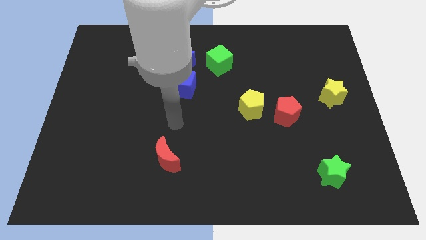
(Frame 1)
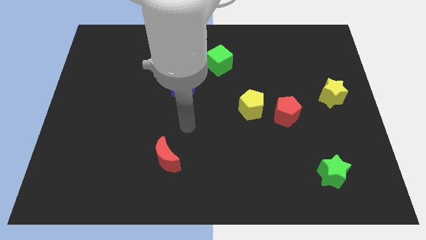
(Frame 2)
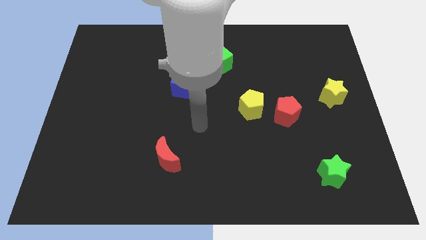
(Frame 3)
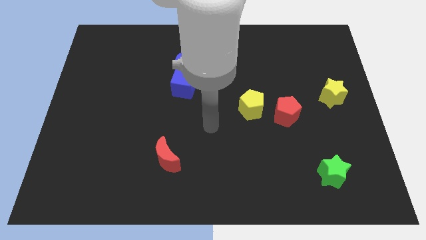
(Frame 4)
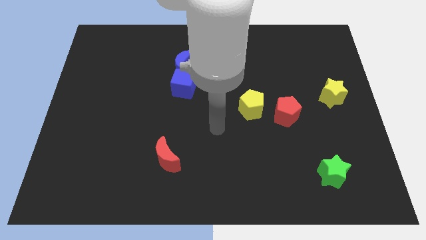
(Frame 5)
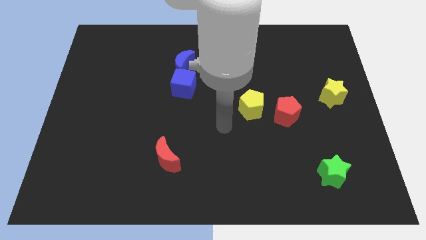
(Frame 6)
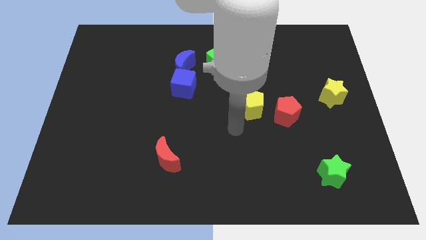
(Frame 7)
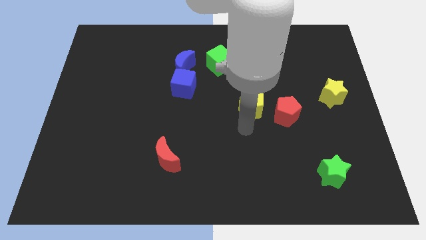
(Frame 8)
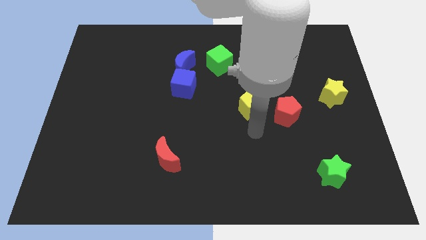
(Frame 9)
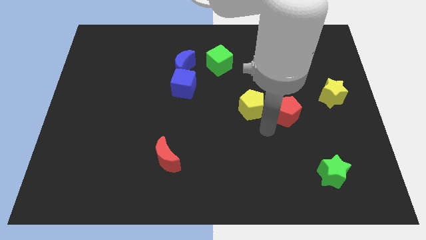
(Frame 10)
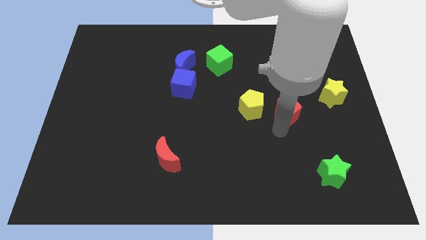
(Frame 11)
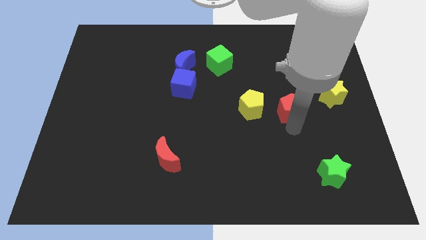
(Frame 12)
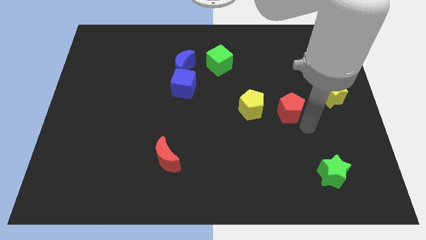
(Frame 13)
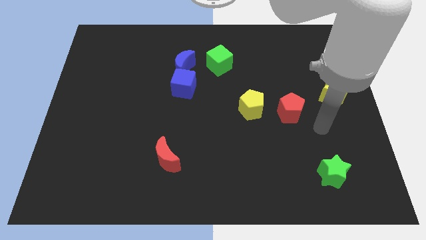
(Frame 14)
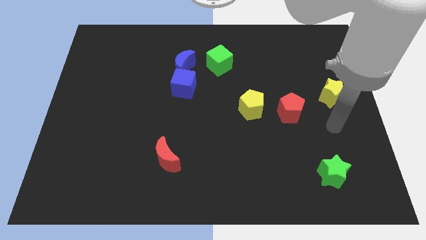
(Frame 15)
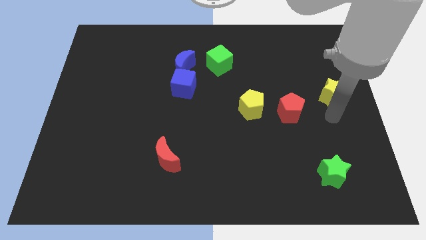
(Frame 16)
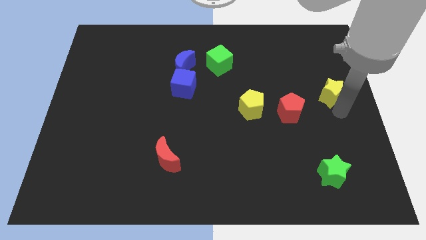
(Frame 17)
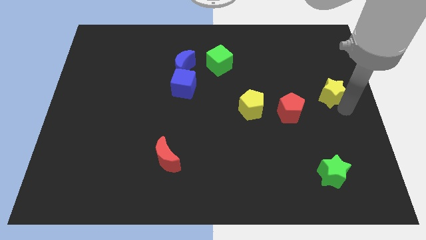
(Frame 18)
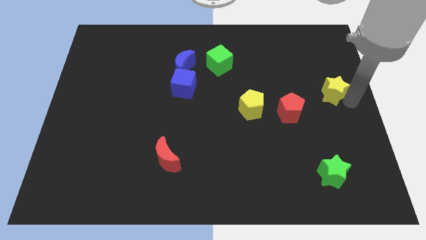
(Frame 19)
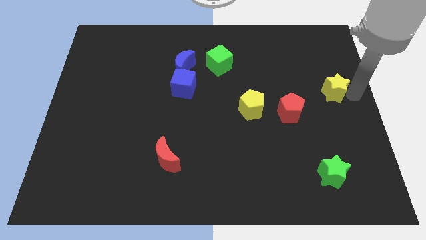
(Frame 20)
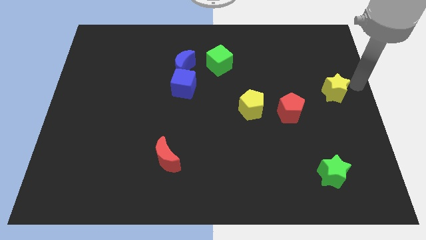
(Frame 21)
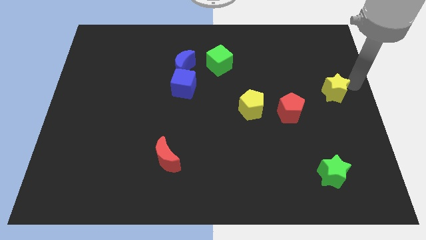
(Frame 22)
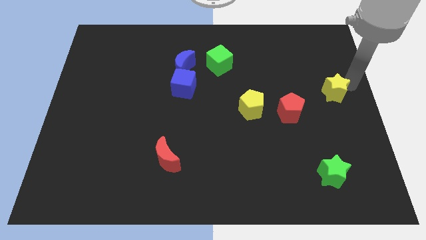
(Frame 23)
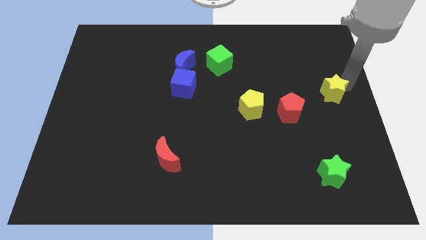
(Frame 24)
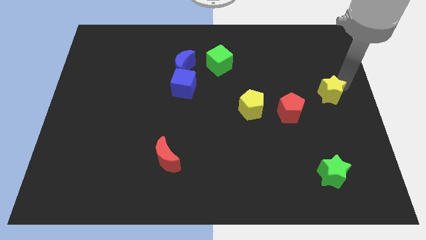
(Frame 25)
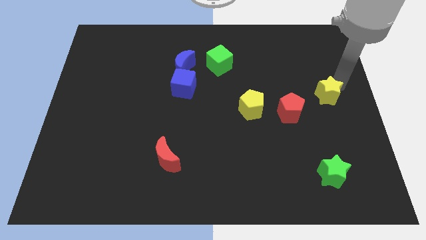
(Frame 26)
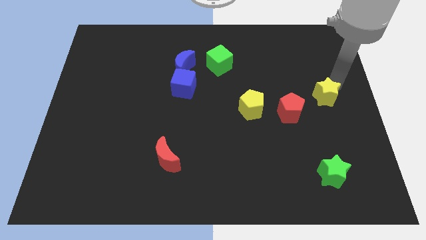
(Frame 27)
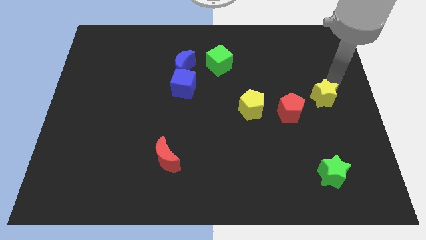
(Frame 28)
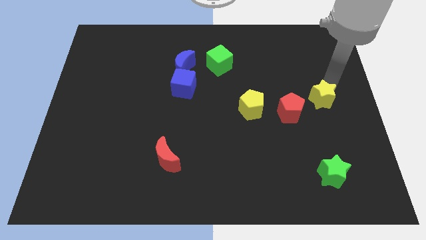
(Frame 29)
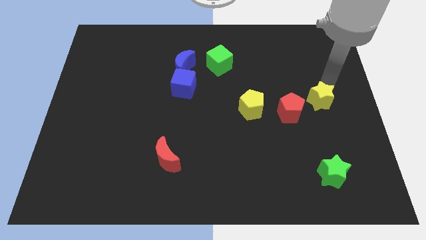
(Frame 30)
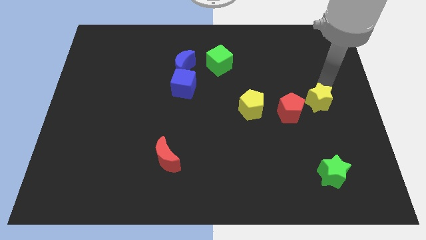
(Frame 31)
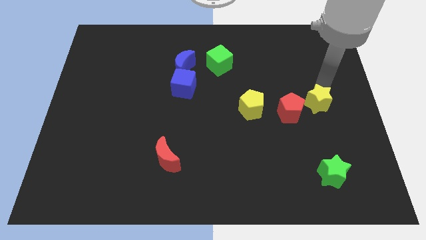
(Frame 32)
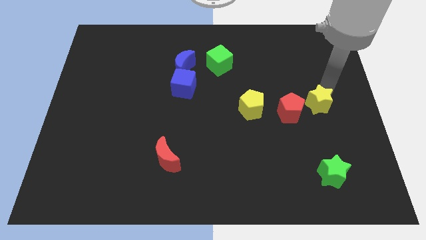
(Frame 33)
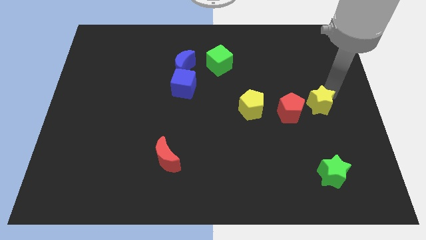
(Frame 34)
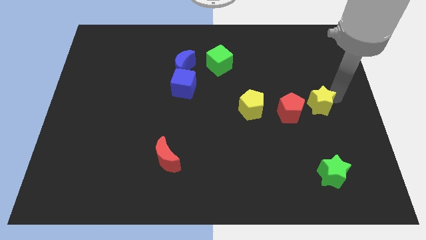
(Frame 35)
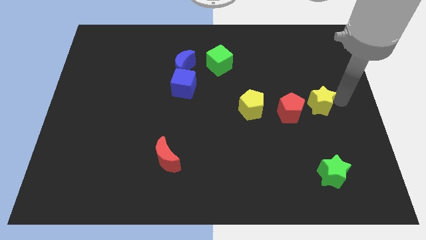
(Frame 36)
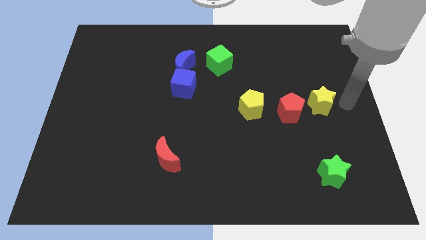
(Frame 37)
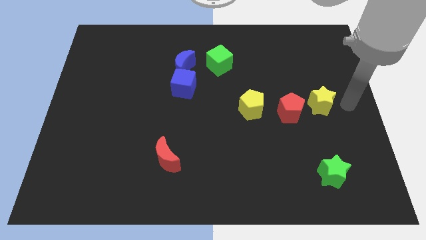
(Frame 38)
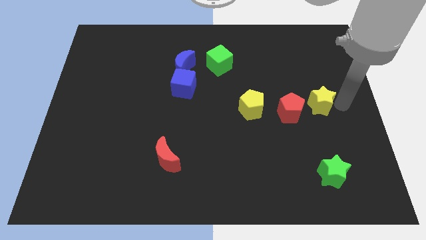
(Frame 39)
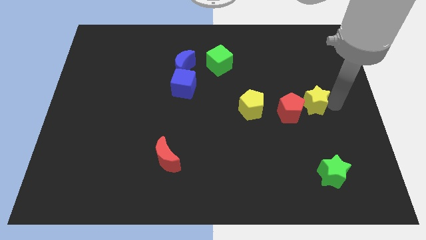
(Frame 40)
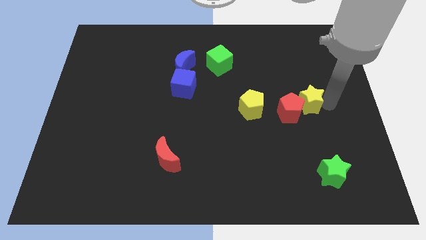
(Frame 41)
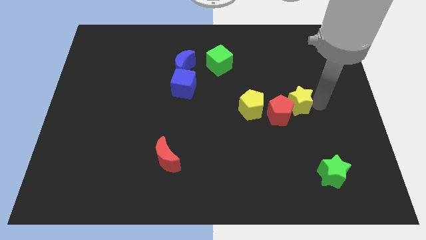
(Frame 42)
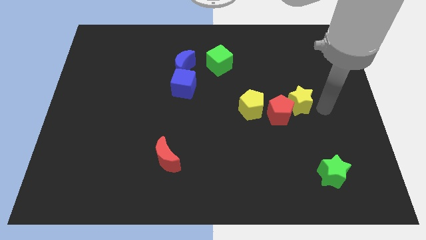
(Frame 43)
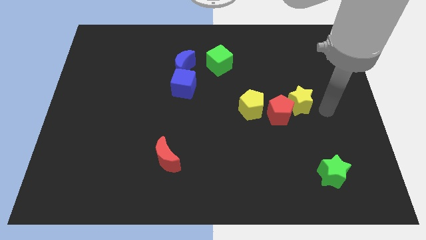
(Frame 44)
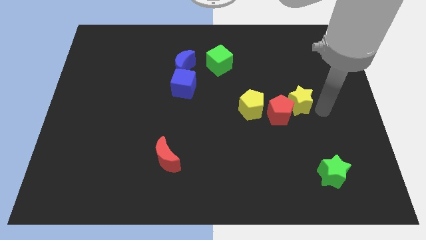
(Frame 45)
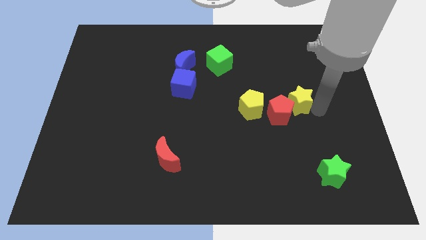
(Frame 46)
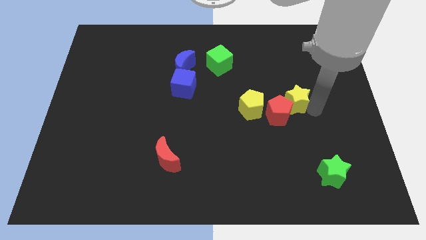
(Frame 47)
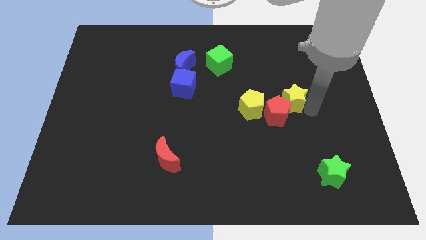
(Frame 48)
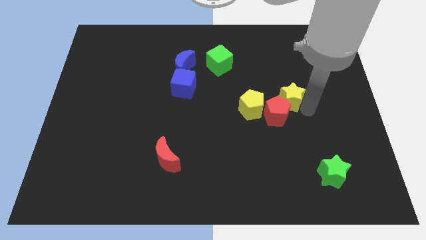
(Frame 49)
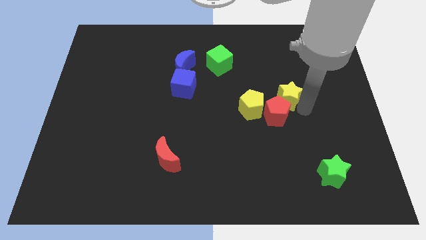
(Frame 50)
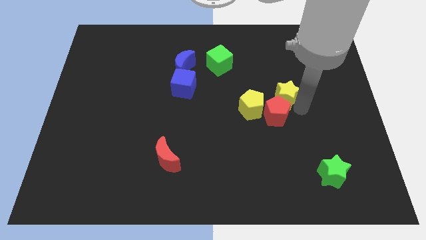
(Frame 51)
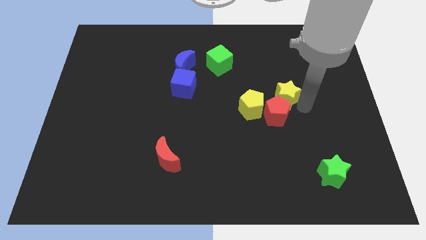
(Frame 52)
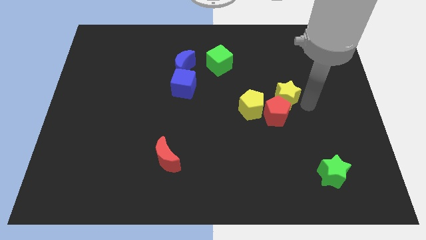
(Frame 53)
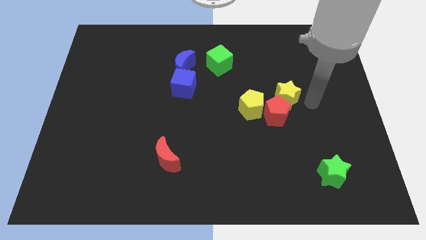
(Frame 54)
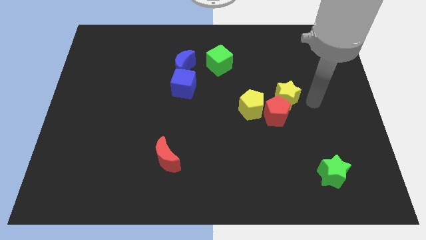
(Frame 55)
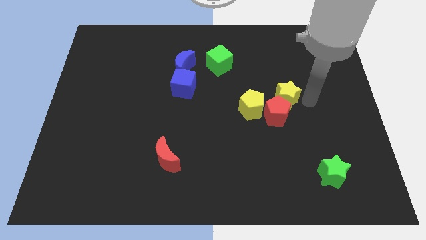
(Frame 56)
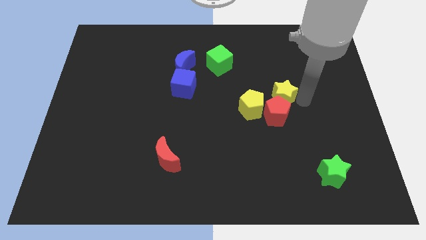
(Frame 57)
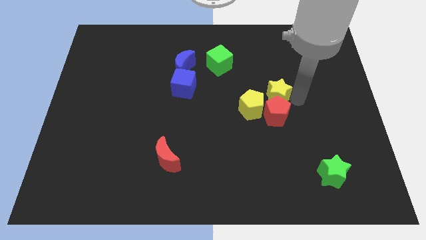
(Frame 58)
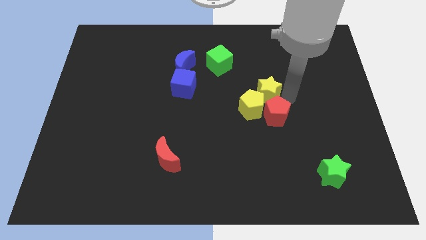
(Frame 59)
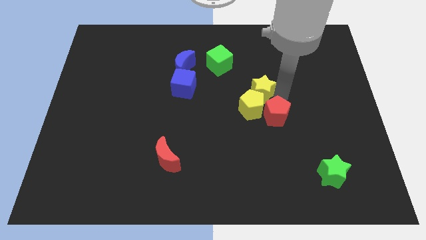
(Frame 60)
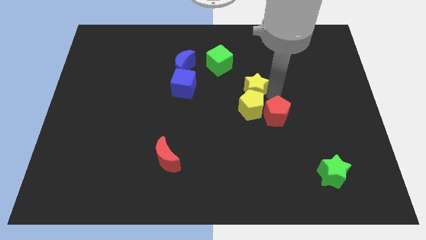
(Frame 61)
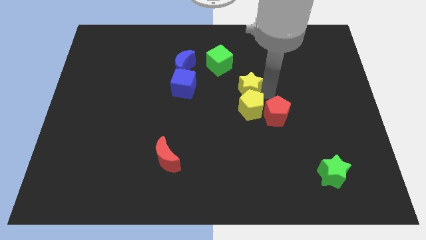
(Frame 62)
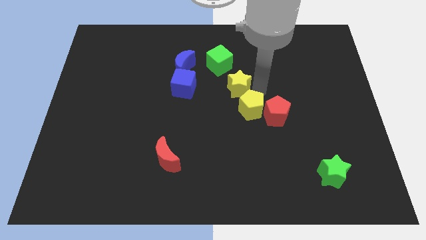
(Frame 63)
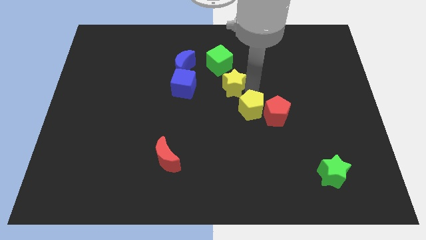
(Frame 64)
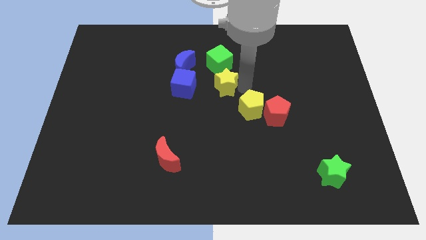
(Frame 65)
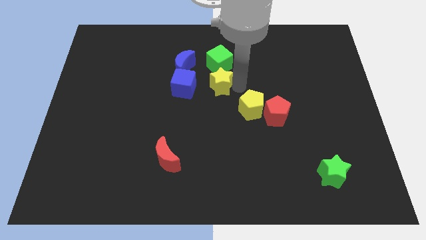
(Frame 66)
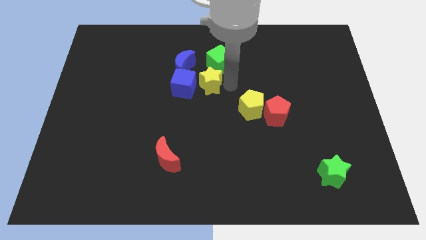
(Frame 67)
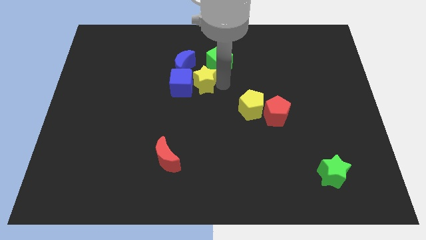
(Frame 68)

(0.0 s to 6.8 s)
move the yellow star close to the blue cube

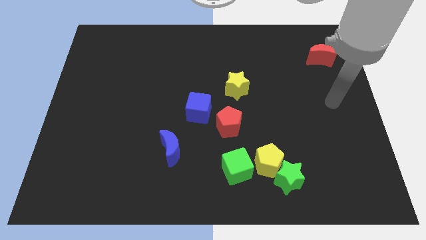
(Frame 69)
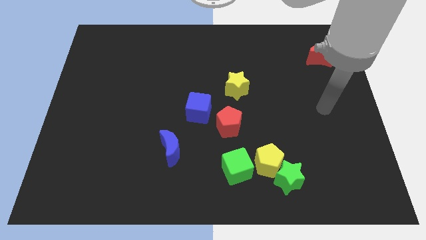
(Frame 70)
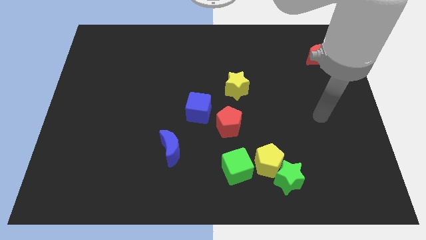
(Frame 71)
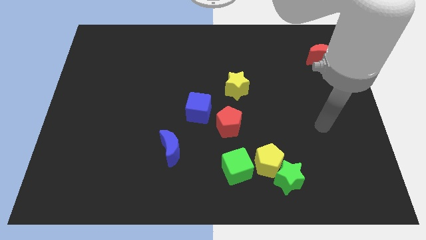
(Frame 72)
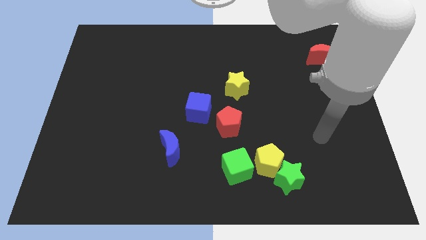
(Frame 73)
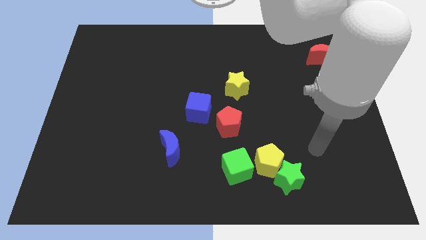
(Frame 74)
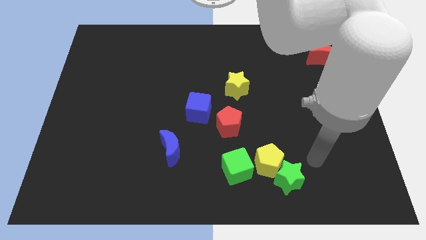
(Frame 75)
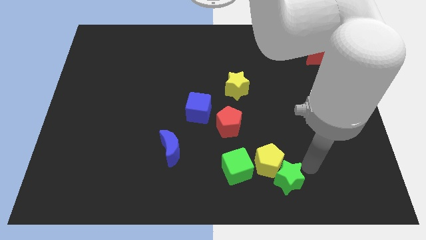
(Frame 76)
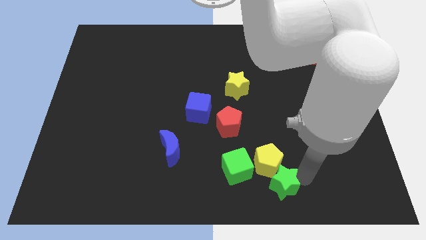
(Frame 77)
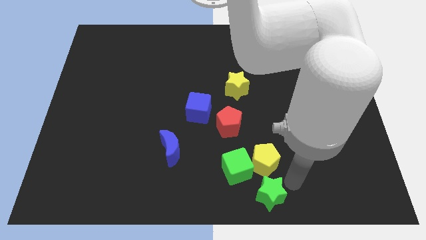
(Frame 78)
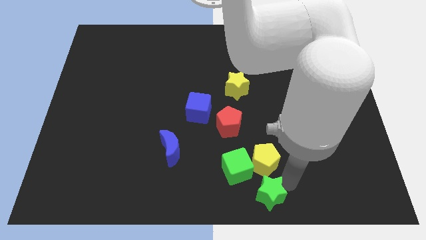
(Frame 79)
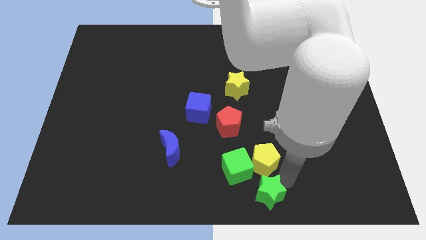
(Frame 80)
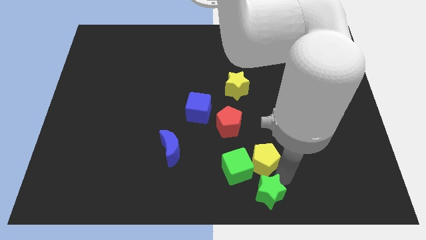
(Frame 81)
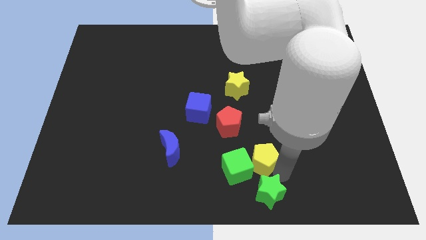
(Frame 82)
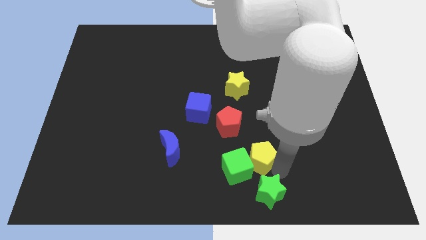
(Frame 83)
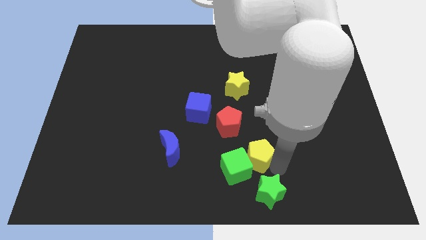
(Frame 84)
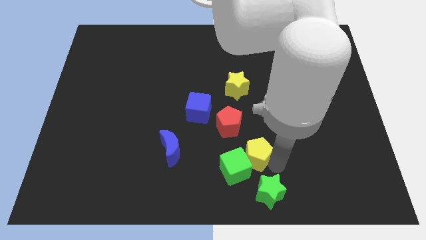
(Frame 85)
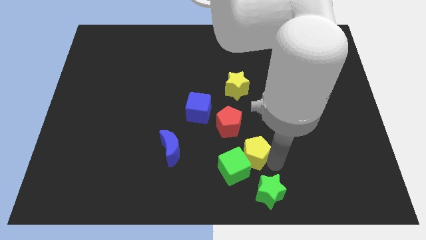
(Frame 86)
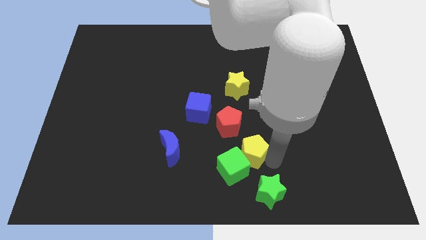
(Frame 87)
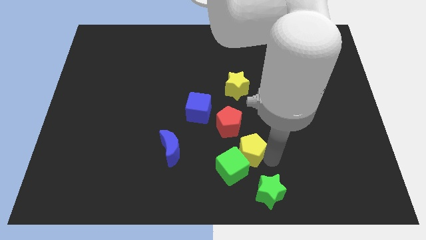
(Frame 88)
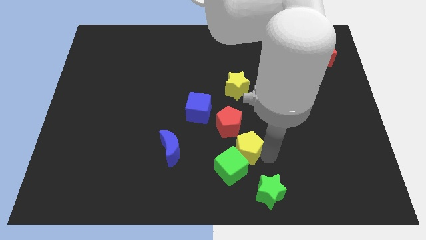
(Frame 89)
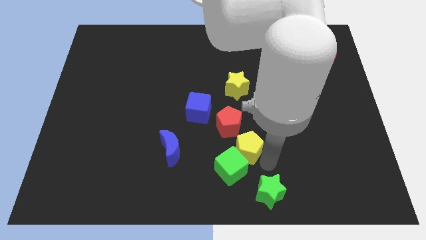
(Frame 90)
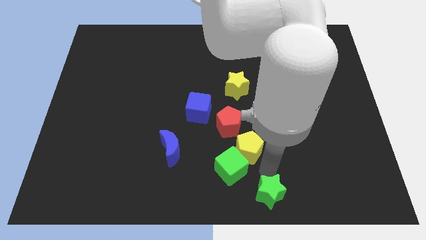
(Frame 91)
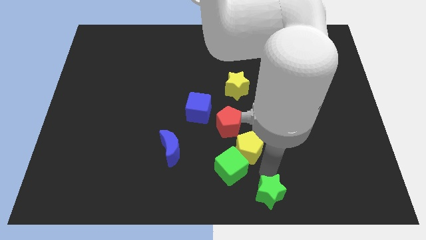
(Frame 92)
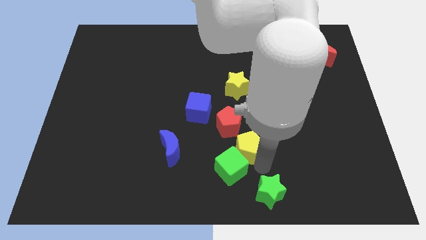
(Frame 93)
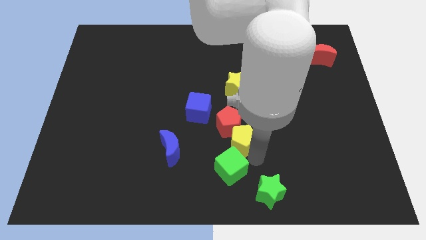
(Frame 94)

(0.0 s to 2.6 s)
push the yellow pentagon to the red pentagon
